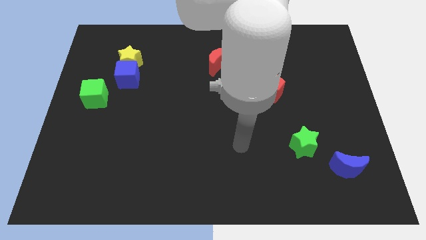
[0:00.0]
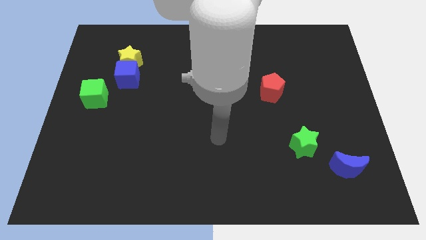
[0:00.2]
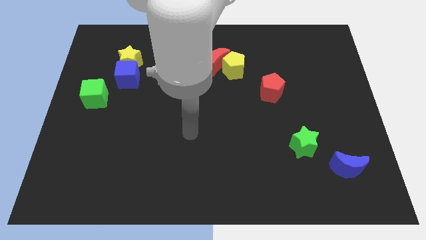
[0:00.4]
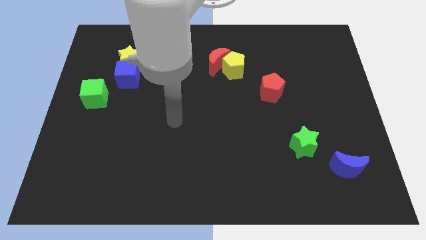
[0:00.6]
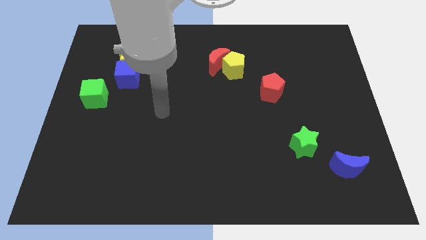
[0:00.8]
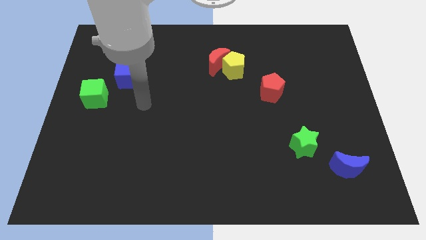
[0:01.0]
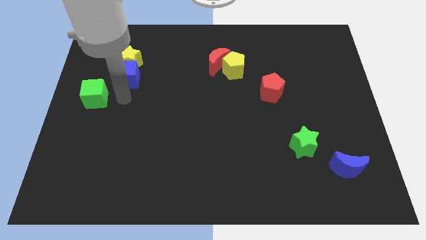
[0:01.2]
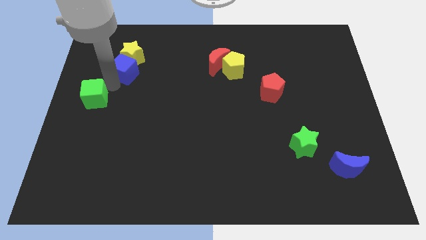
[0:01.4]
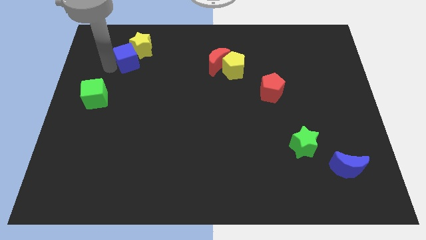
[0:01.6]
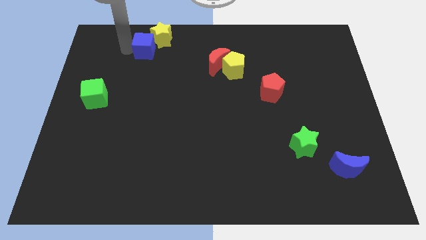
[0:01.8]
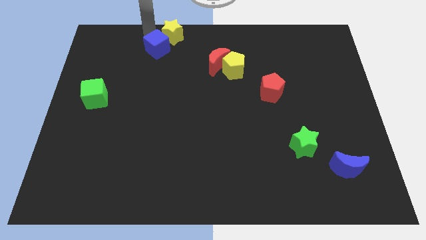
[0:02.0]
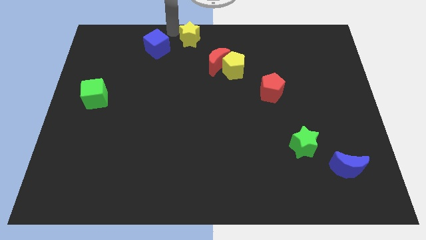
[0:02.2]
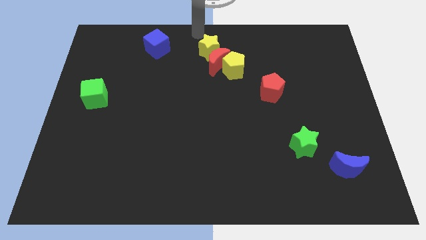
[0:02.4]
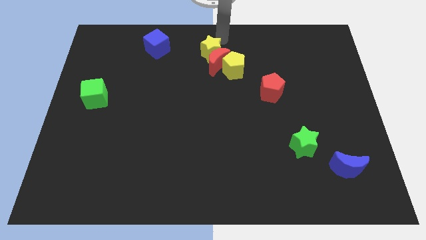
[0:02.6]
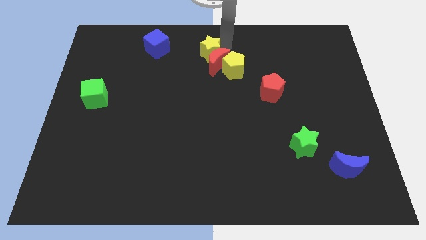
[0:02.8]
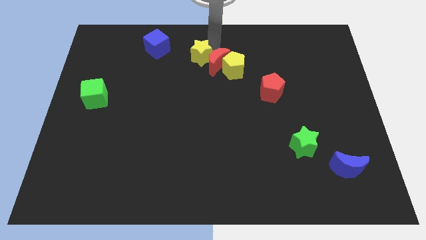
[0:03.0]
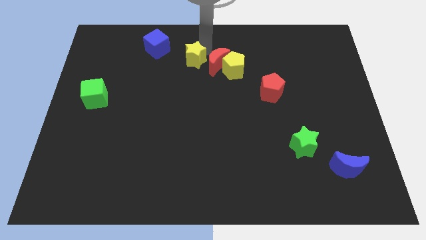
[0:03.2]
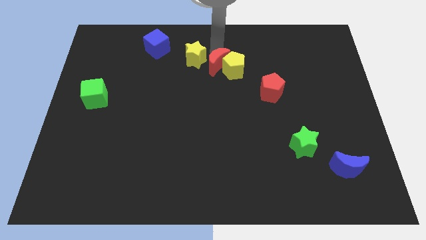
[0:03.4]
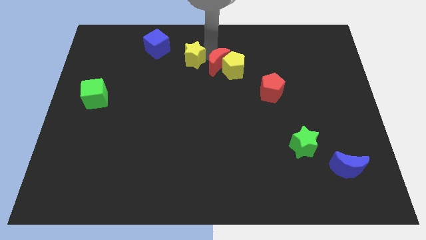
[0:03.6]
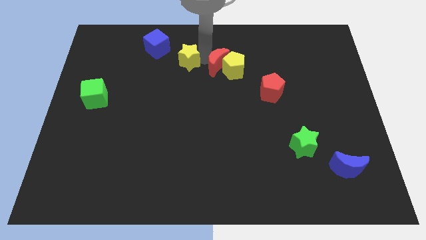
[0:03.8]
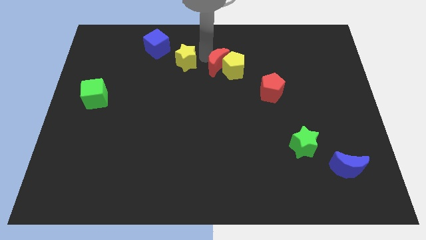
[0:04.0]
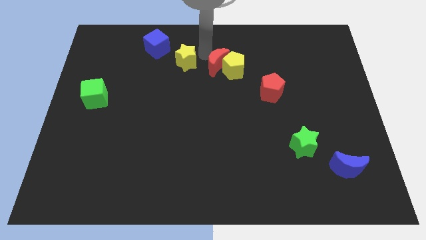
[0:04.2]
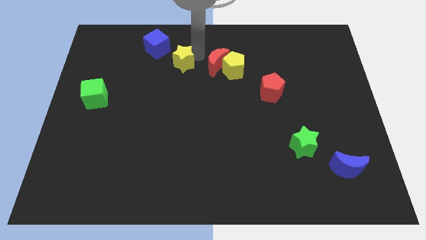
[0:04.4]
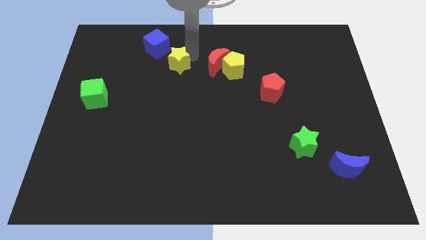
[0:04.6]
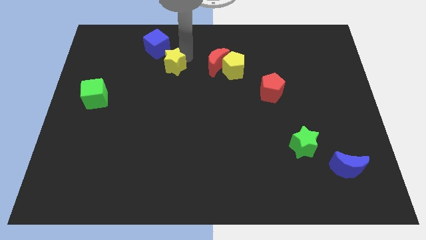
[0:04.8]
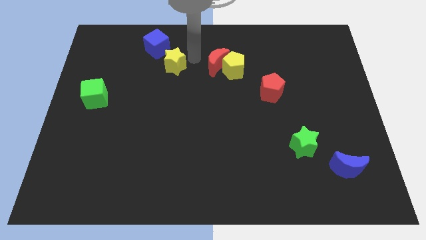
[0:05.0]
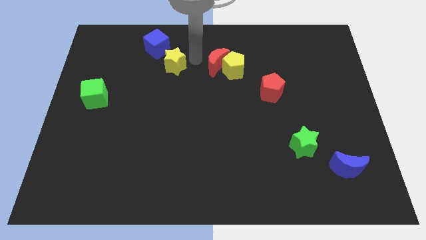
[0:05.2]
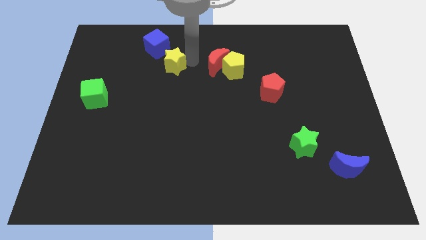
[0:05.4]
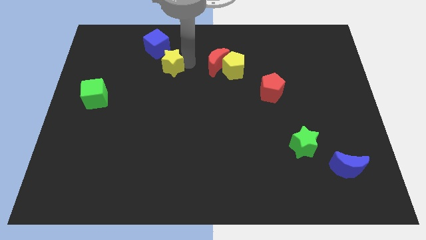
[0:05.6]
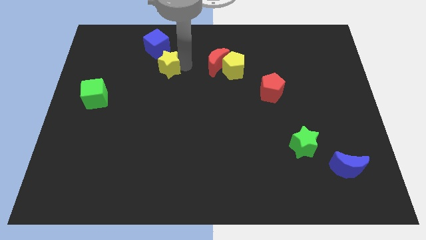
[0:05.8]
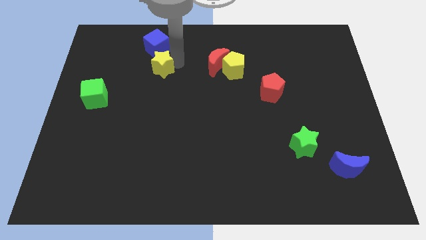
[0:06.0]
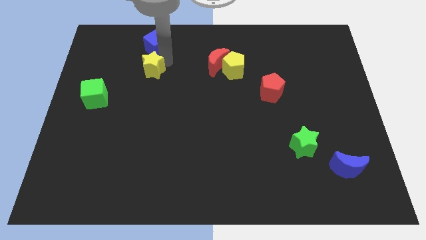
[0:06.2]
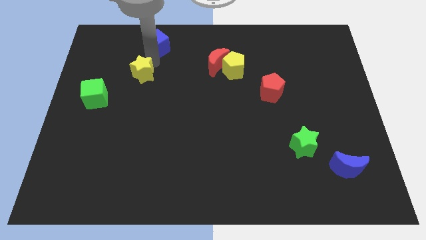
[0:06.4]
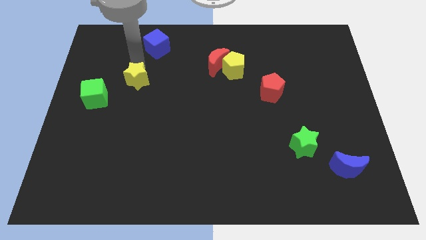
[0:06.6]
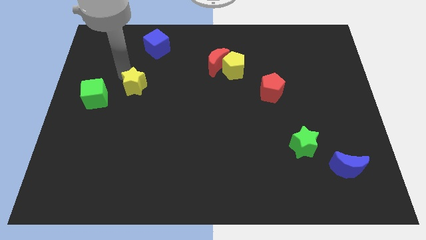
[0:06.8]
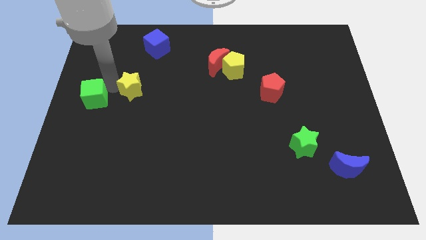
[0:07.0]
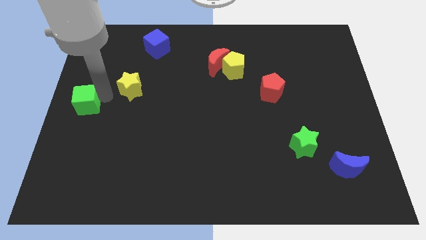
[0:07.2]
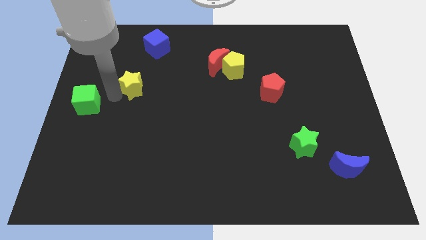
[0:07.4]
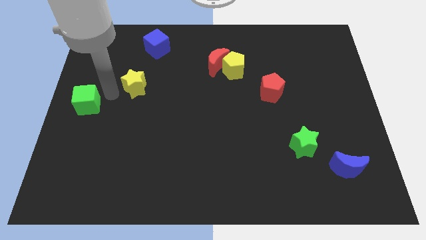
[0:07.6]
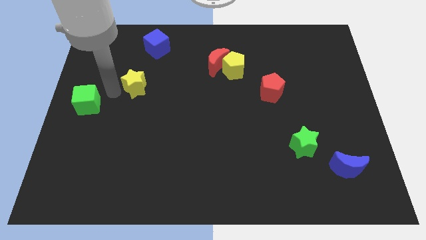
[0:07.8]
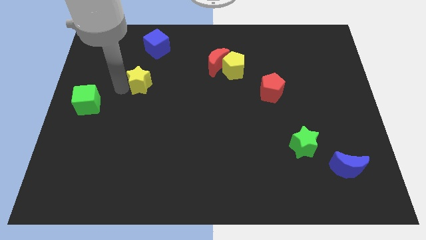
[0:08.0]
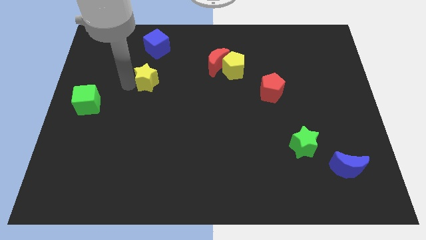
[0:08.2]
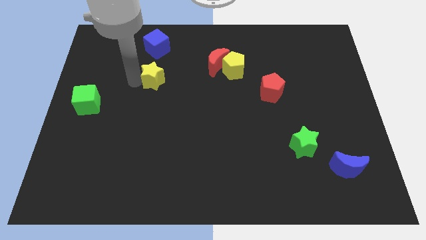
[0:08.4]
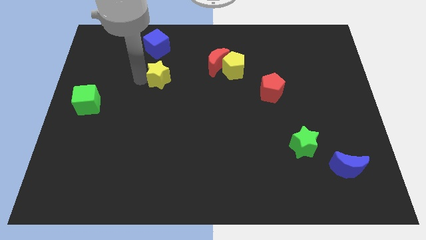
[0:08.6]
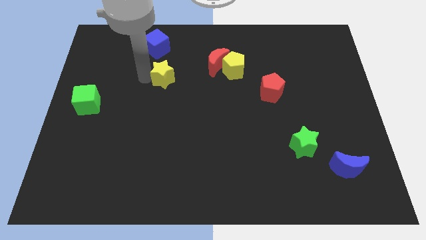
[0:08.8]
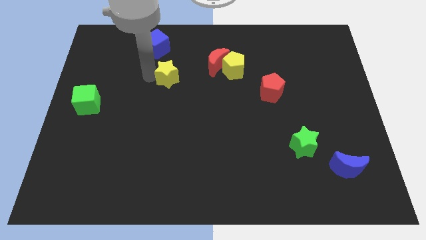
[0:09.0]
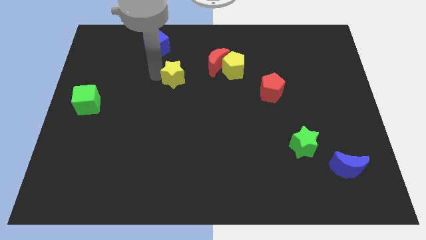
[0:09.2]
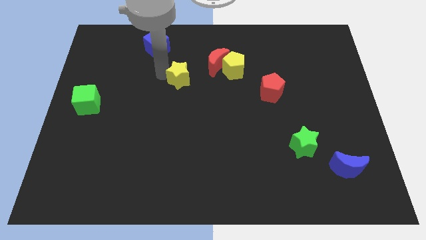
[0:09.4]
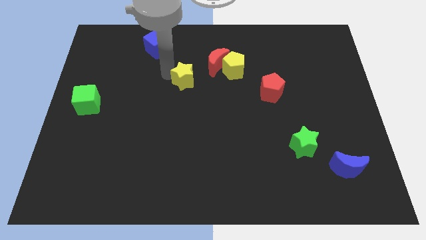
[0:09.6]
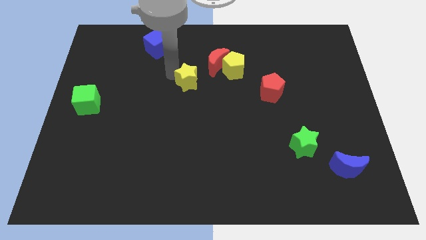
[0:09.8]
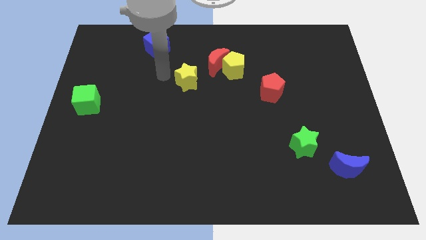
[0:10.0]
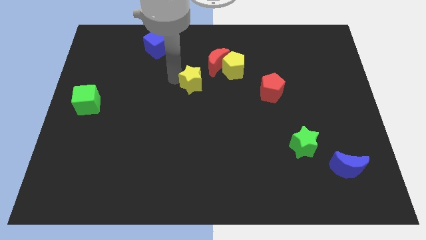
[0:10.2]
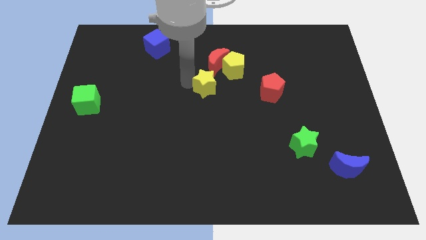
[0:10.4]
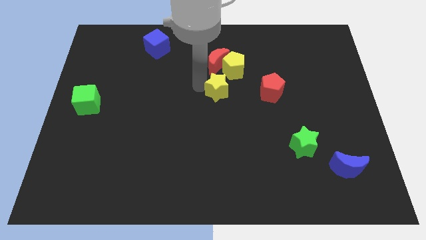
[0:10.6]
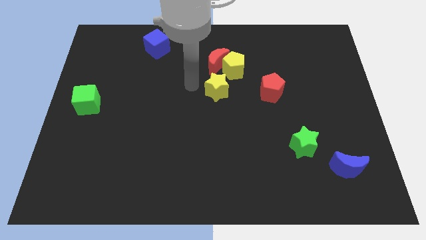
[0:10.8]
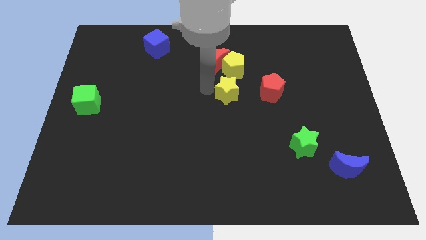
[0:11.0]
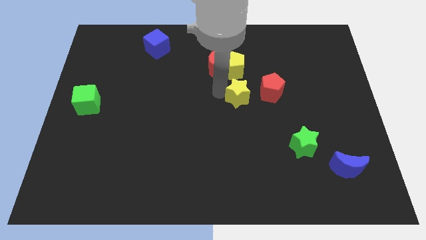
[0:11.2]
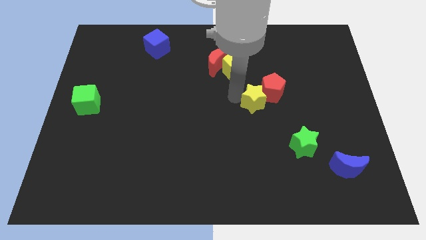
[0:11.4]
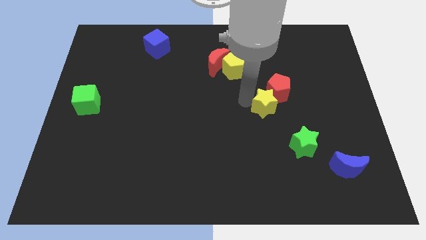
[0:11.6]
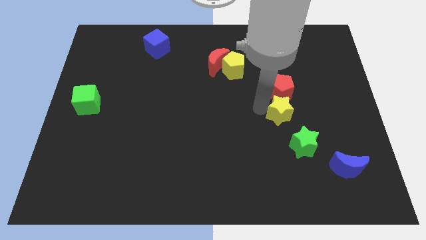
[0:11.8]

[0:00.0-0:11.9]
put the yellow star to the top side of the green star
